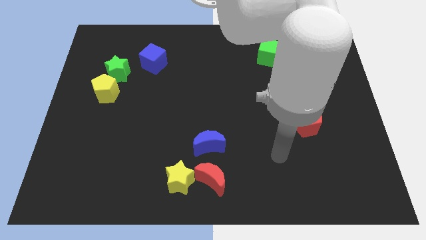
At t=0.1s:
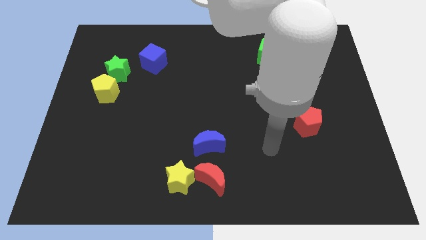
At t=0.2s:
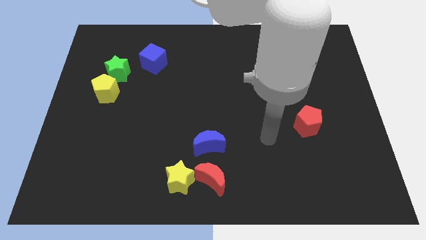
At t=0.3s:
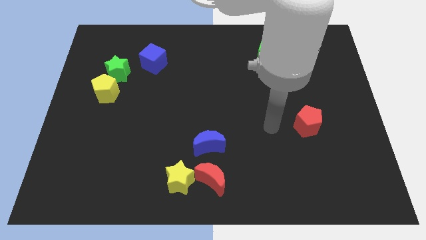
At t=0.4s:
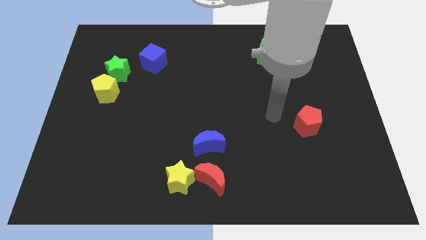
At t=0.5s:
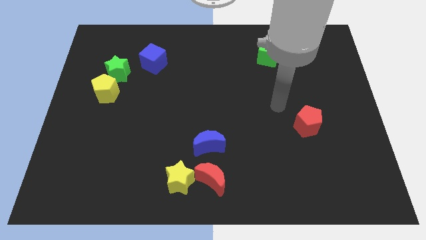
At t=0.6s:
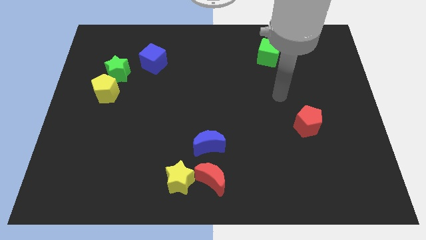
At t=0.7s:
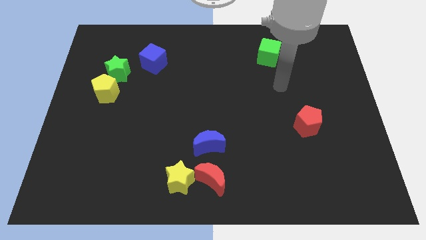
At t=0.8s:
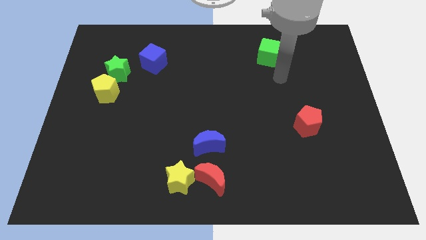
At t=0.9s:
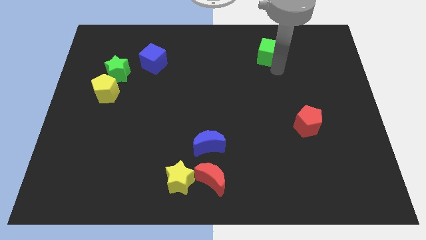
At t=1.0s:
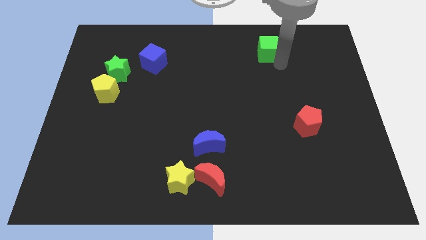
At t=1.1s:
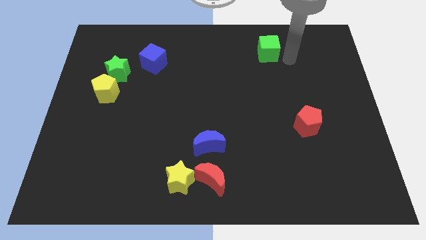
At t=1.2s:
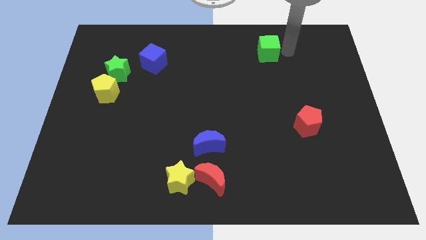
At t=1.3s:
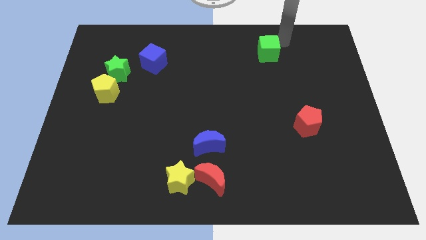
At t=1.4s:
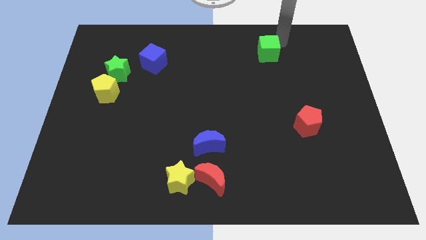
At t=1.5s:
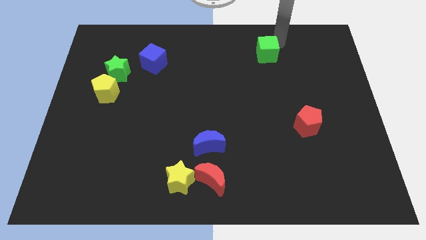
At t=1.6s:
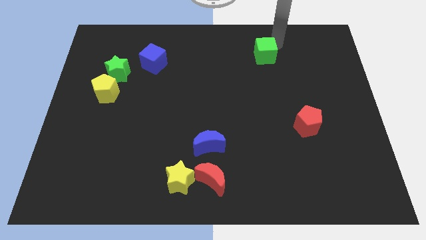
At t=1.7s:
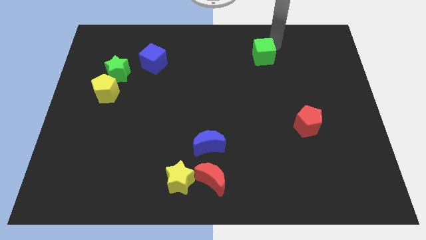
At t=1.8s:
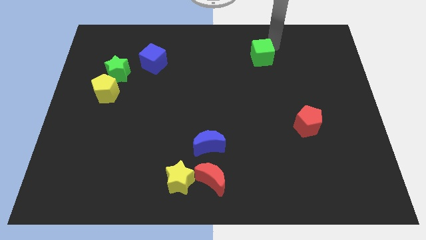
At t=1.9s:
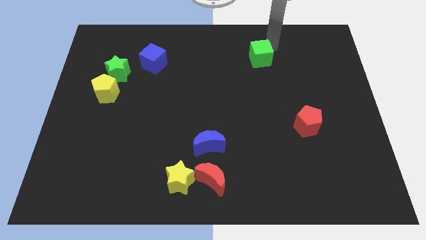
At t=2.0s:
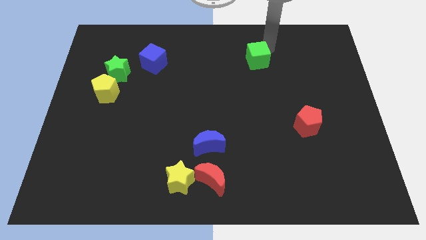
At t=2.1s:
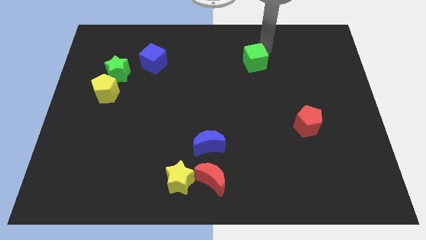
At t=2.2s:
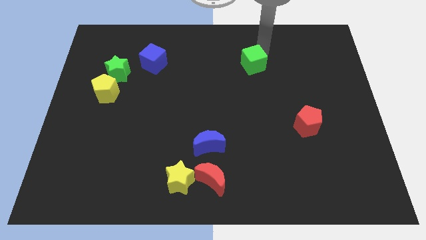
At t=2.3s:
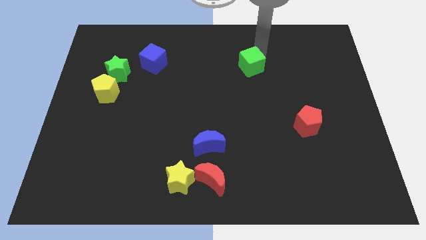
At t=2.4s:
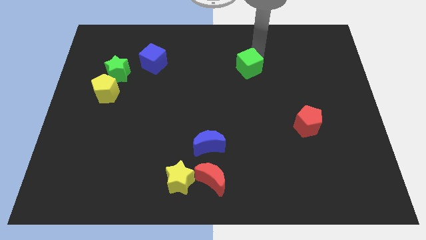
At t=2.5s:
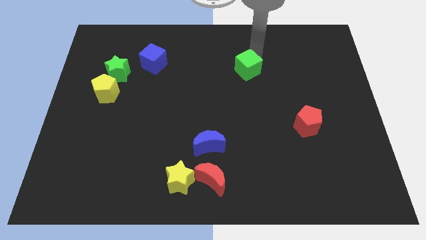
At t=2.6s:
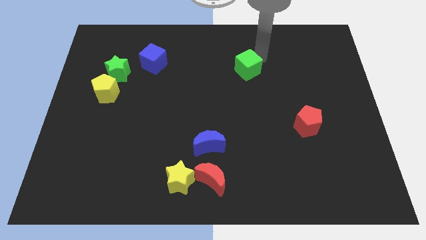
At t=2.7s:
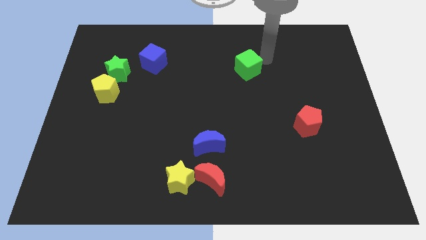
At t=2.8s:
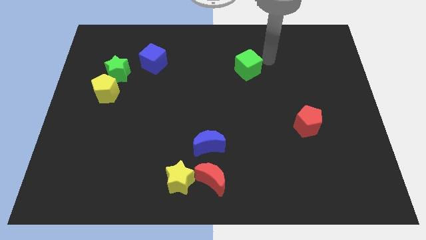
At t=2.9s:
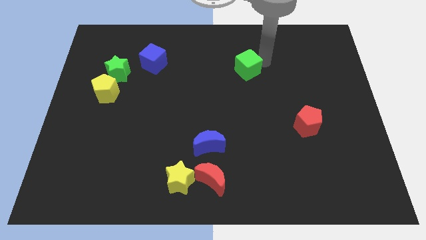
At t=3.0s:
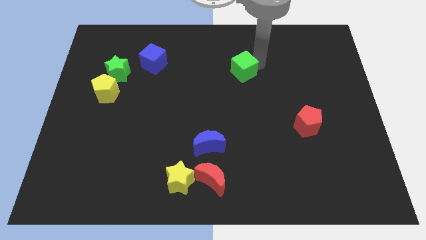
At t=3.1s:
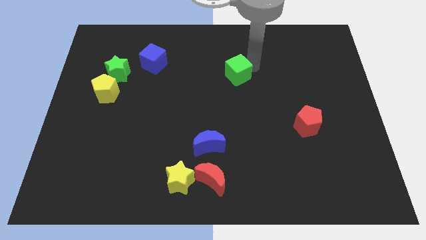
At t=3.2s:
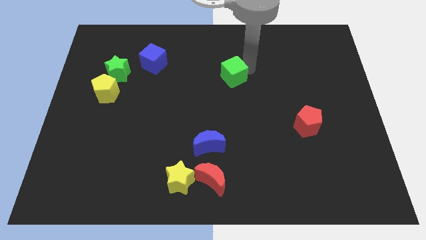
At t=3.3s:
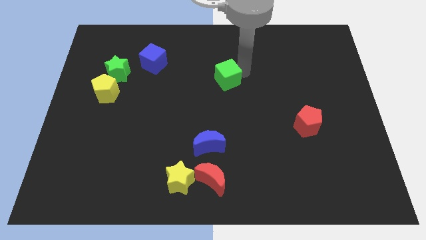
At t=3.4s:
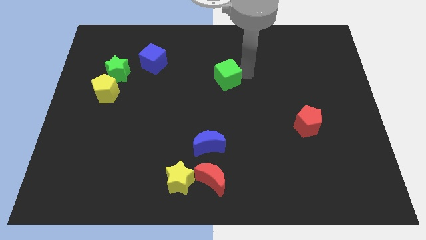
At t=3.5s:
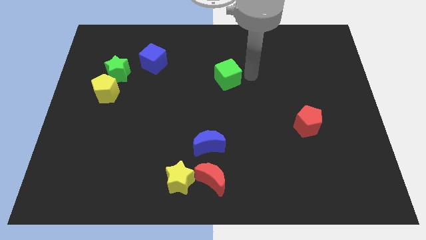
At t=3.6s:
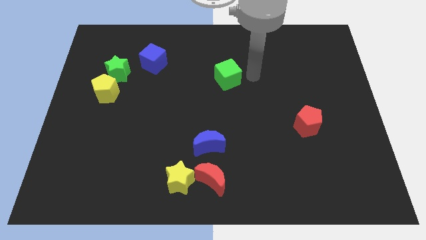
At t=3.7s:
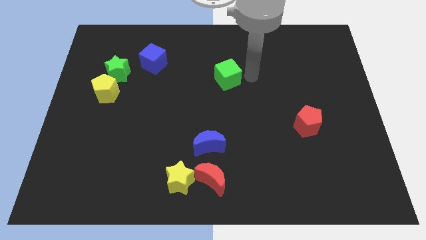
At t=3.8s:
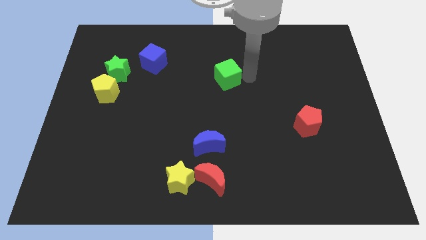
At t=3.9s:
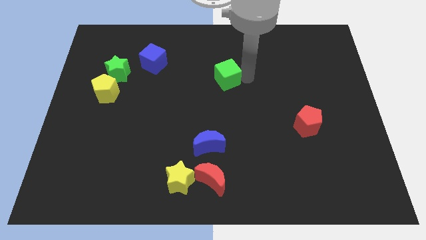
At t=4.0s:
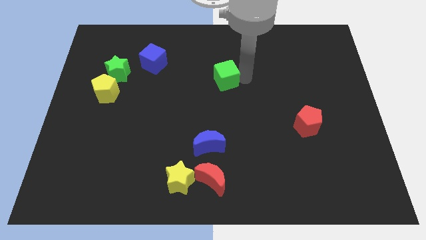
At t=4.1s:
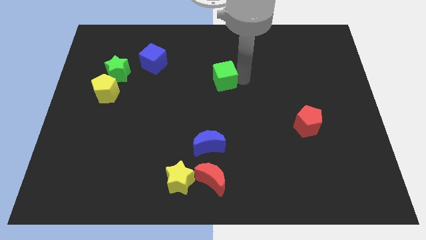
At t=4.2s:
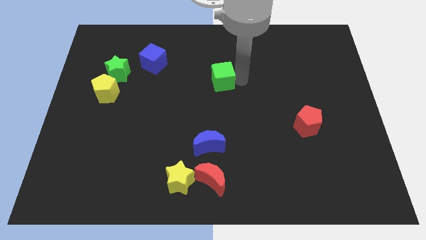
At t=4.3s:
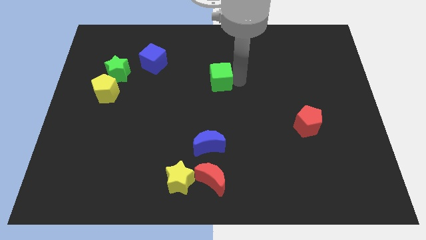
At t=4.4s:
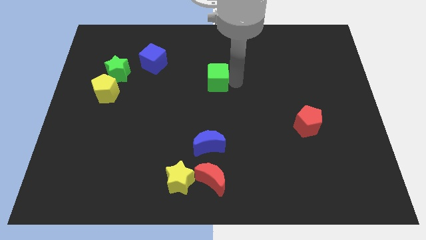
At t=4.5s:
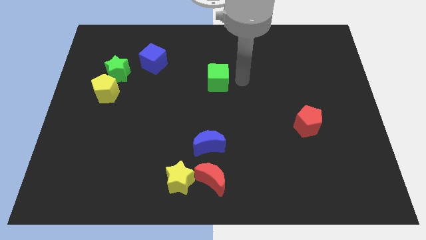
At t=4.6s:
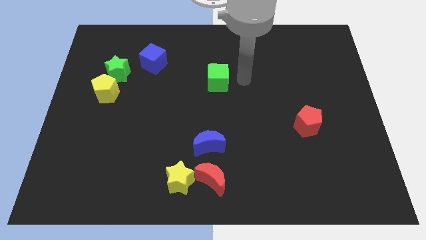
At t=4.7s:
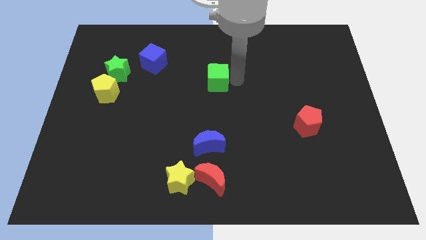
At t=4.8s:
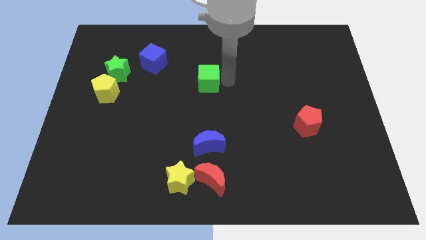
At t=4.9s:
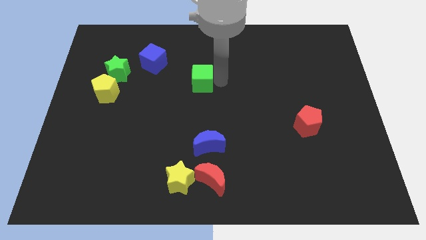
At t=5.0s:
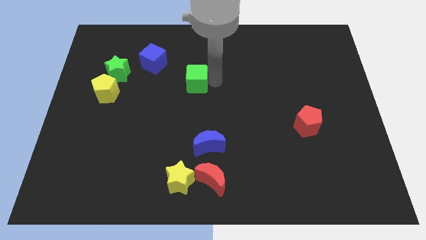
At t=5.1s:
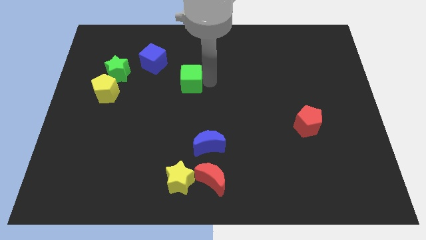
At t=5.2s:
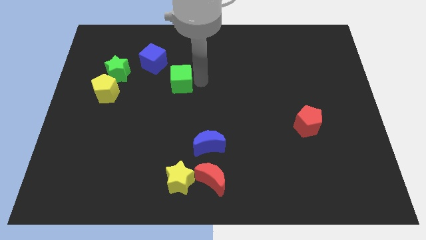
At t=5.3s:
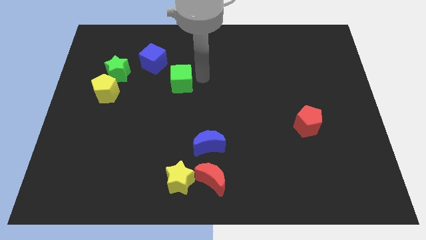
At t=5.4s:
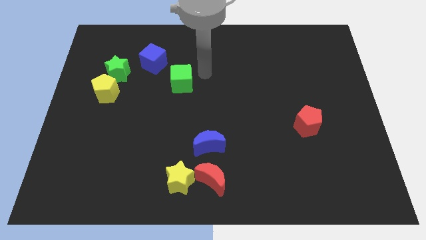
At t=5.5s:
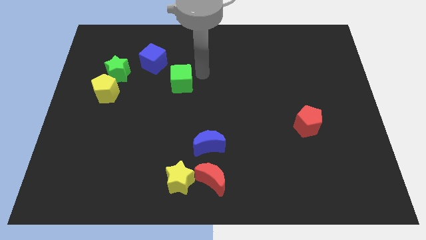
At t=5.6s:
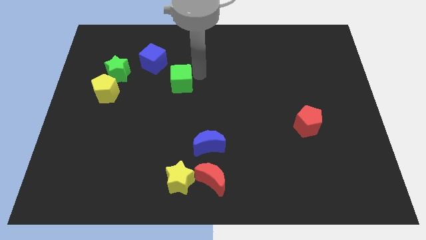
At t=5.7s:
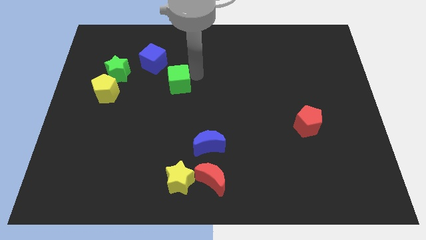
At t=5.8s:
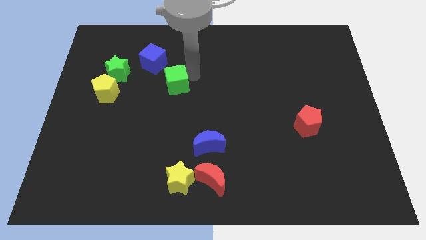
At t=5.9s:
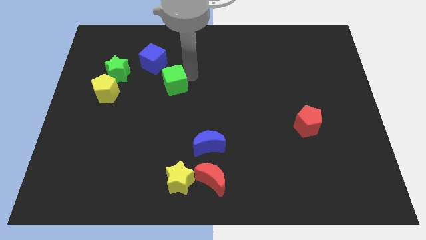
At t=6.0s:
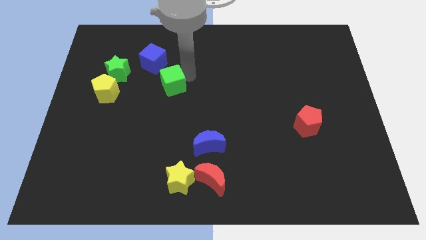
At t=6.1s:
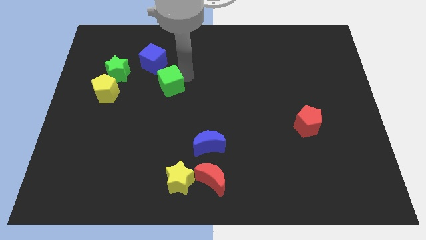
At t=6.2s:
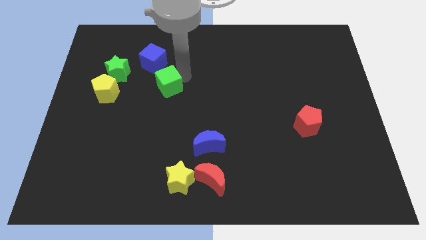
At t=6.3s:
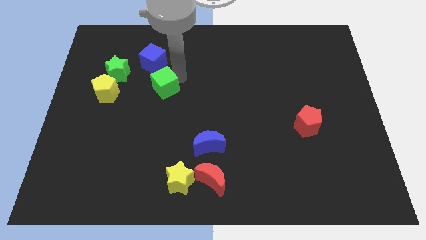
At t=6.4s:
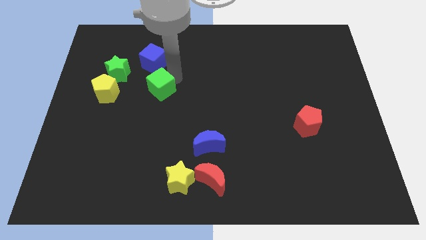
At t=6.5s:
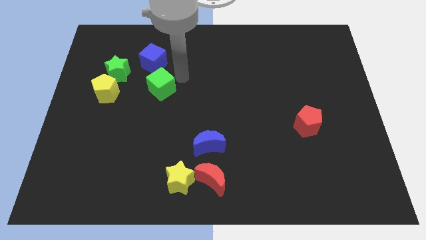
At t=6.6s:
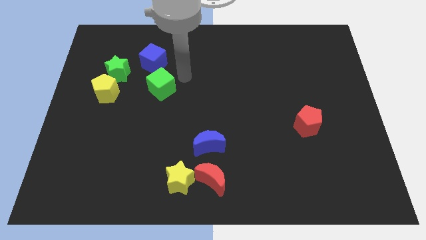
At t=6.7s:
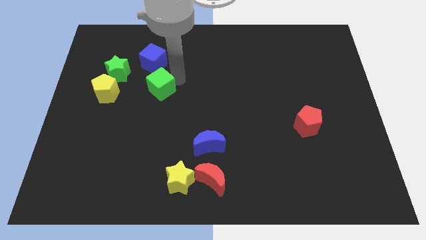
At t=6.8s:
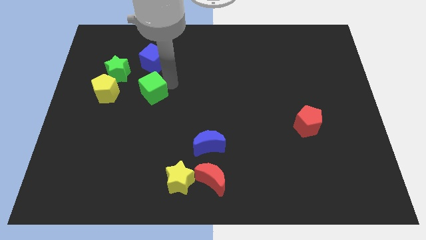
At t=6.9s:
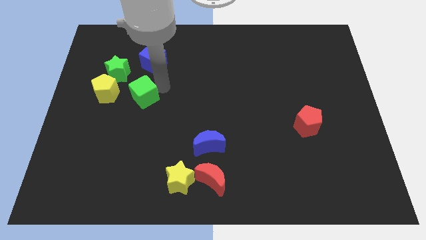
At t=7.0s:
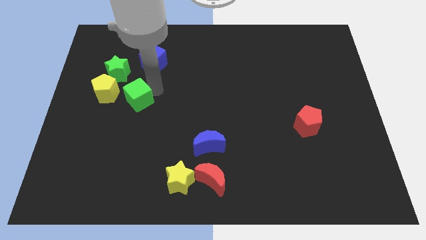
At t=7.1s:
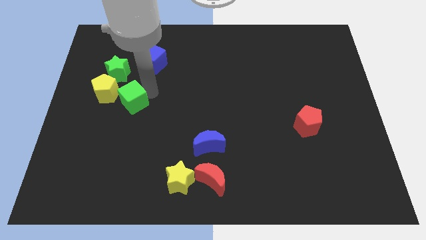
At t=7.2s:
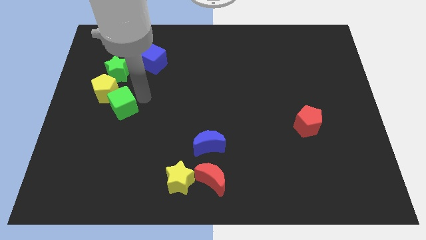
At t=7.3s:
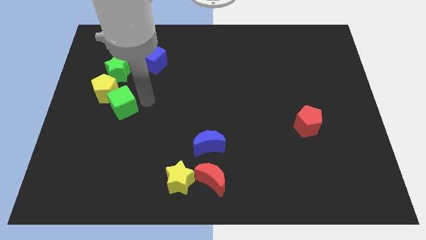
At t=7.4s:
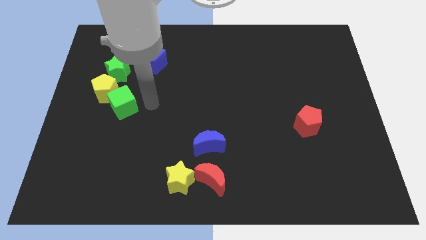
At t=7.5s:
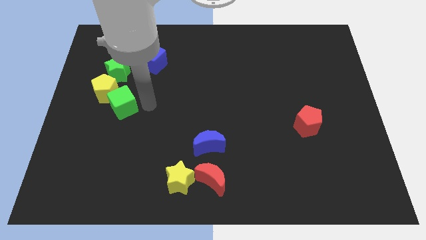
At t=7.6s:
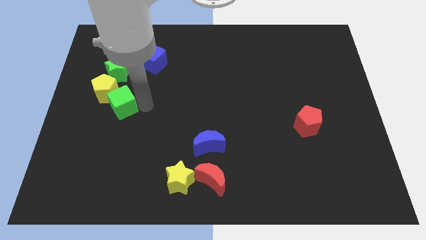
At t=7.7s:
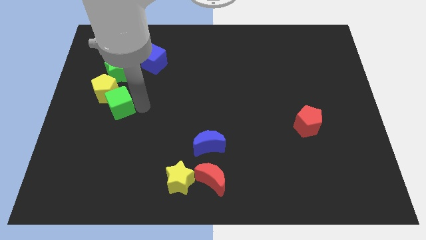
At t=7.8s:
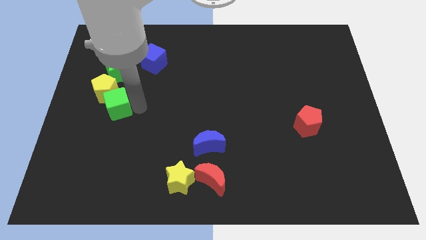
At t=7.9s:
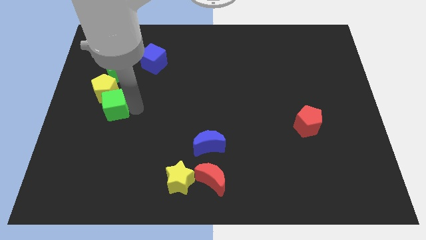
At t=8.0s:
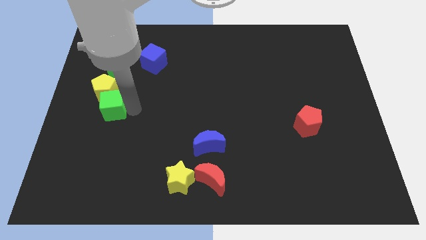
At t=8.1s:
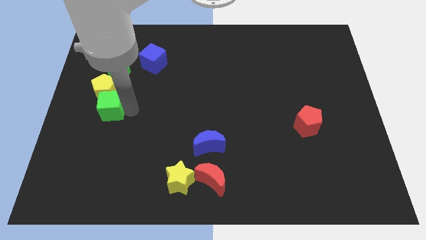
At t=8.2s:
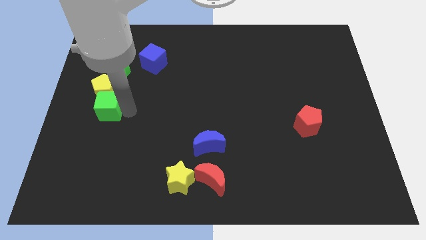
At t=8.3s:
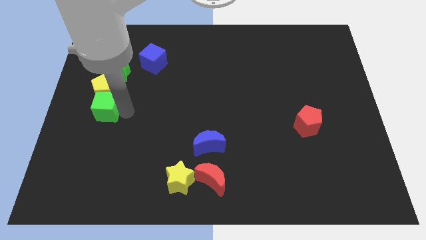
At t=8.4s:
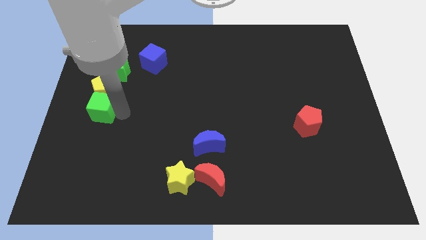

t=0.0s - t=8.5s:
push the green cube to the left side
